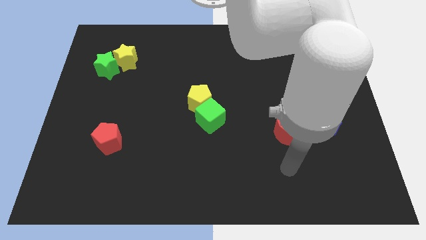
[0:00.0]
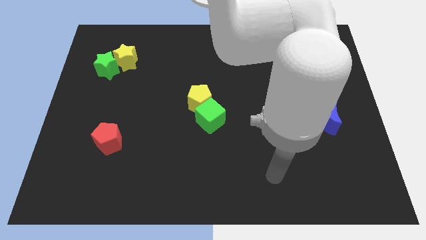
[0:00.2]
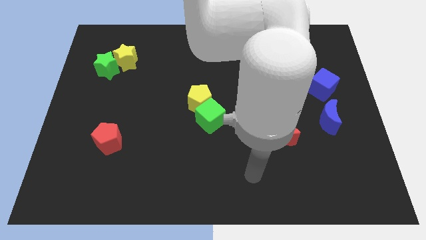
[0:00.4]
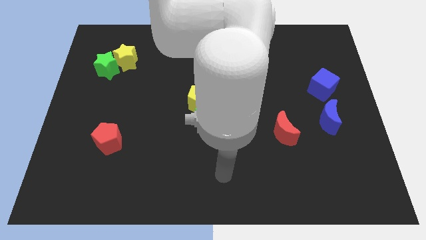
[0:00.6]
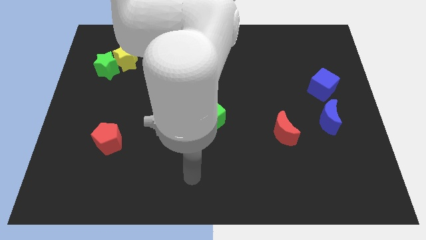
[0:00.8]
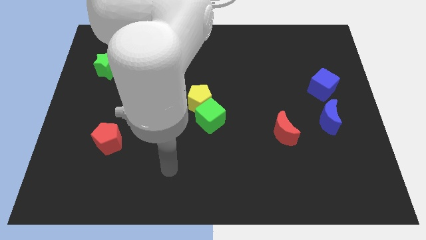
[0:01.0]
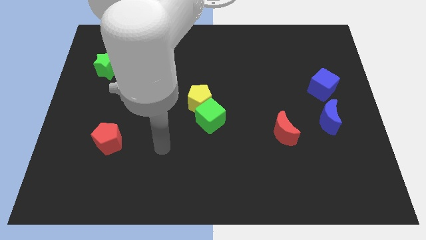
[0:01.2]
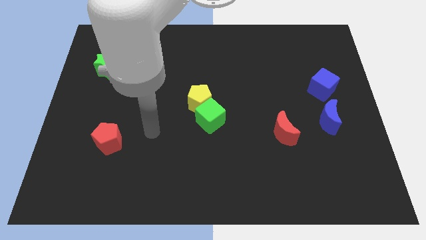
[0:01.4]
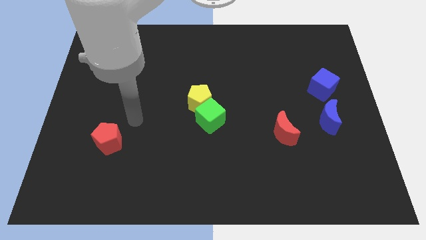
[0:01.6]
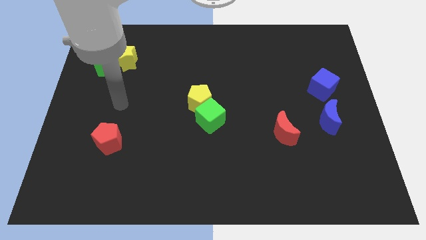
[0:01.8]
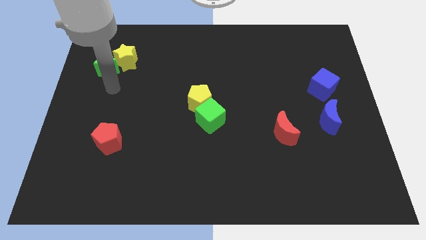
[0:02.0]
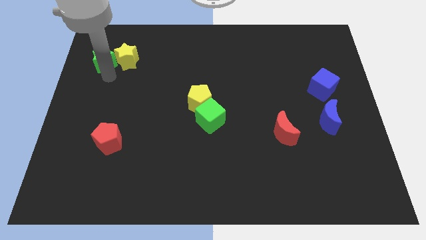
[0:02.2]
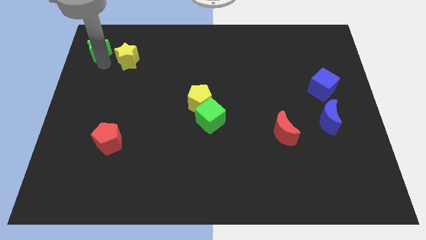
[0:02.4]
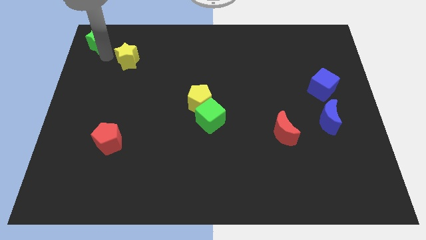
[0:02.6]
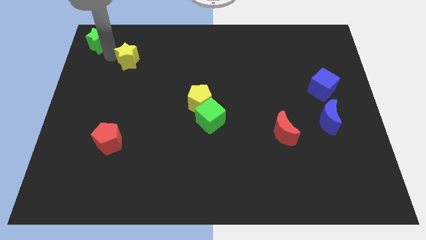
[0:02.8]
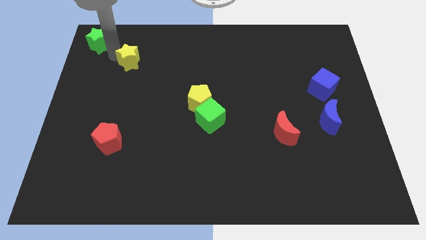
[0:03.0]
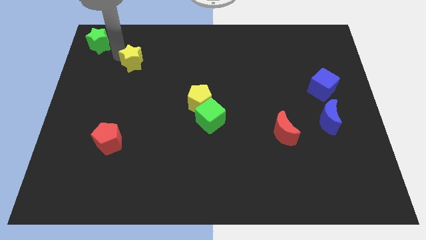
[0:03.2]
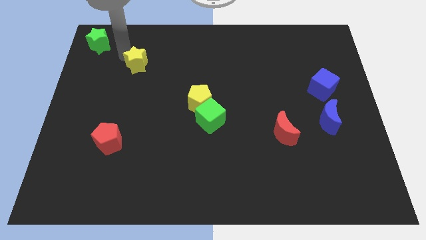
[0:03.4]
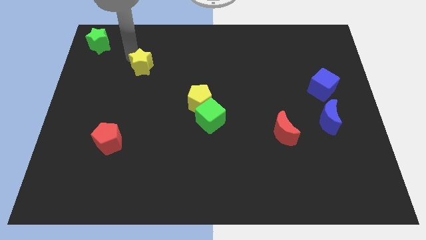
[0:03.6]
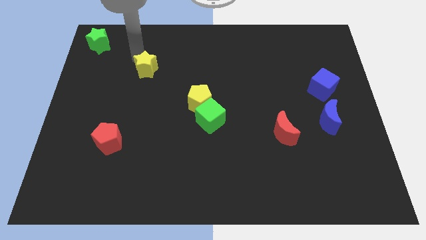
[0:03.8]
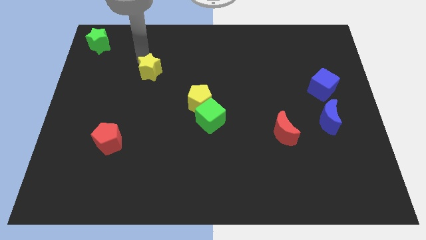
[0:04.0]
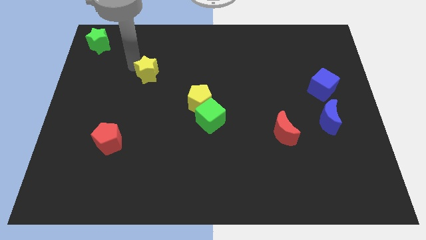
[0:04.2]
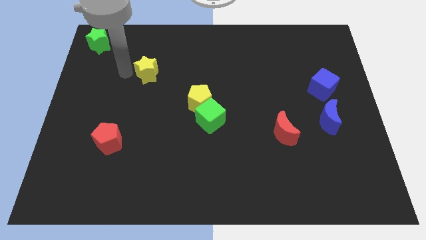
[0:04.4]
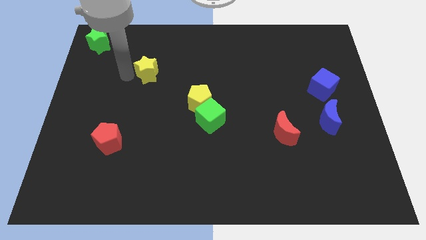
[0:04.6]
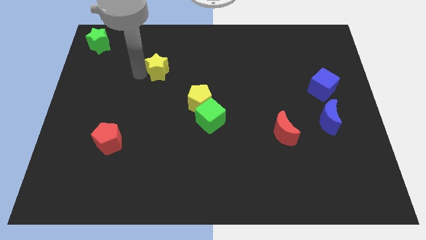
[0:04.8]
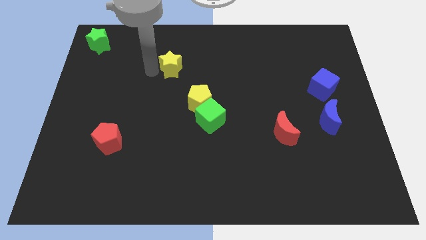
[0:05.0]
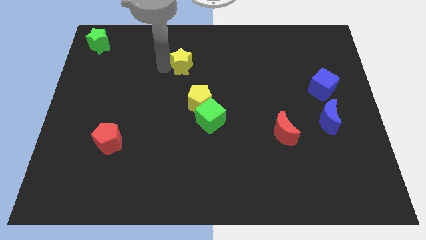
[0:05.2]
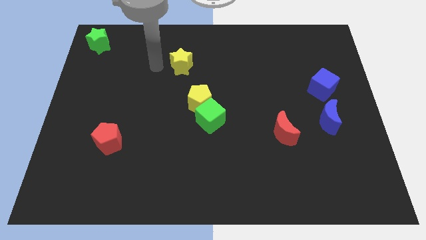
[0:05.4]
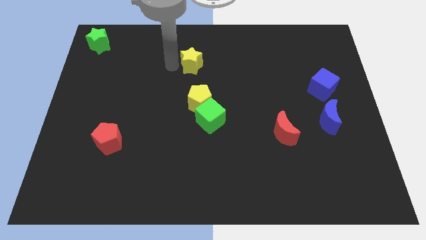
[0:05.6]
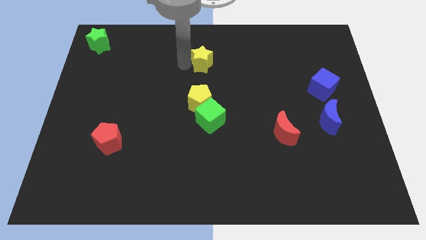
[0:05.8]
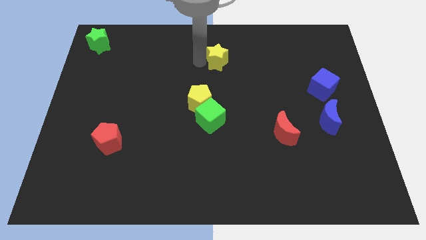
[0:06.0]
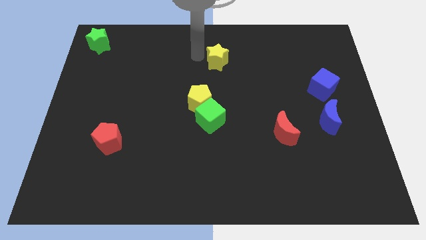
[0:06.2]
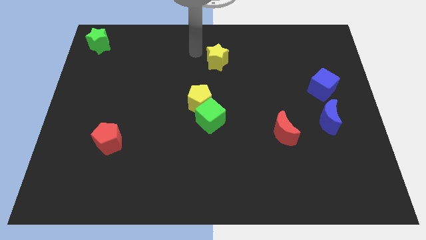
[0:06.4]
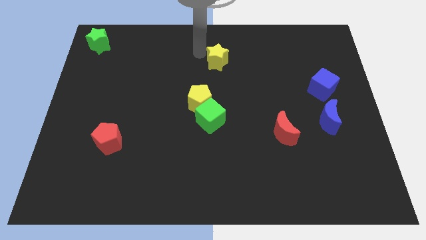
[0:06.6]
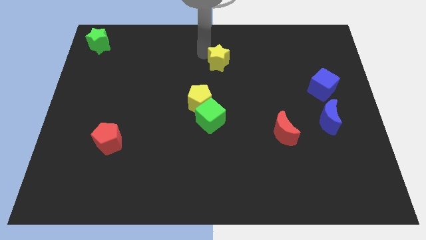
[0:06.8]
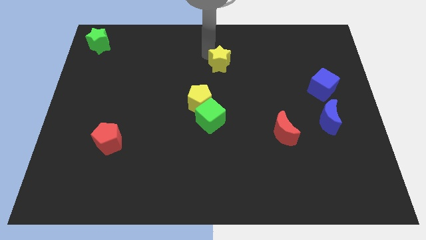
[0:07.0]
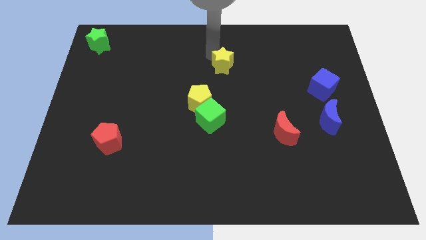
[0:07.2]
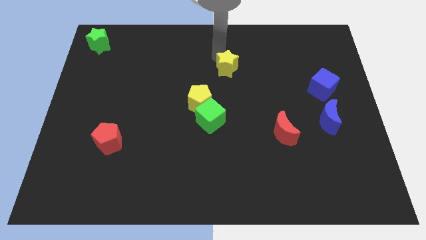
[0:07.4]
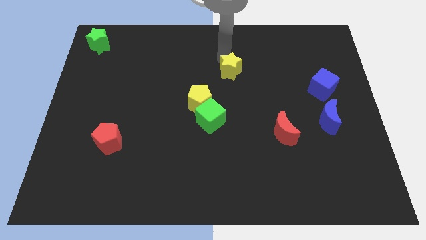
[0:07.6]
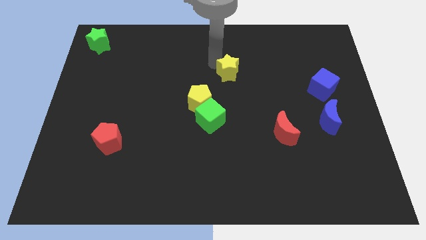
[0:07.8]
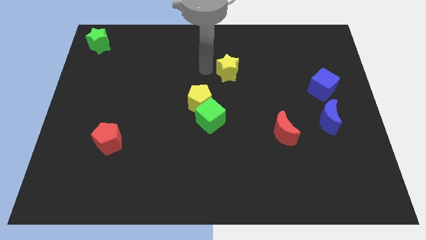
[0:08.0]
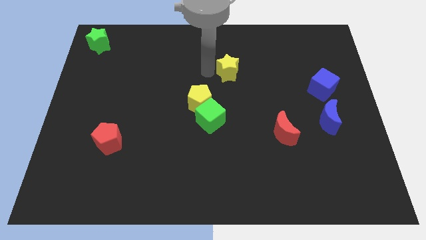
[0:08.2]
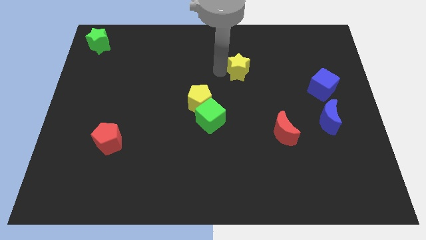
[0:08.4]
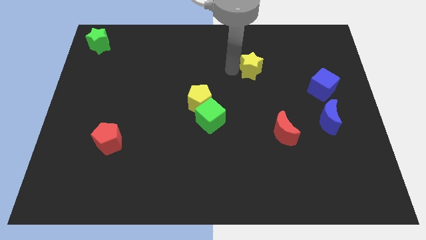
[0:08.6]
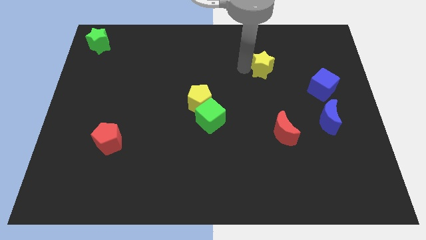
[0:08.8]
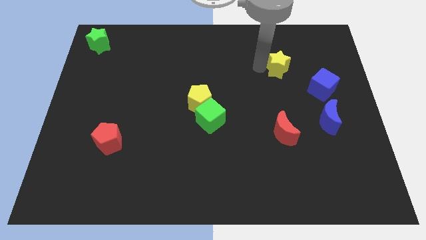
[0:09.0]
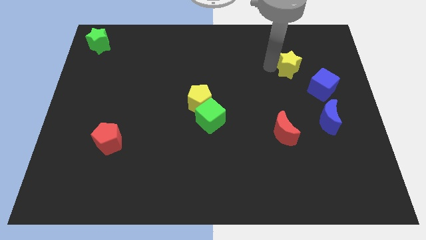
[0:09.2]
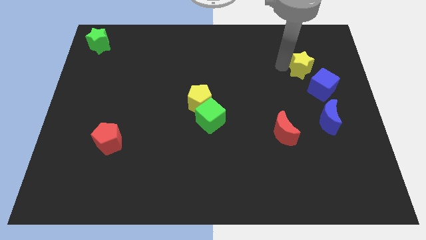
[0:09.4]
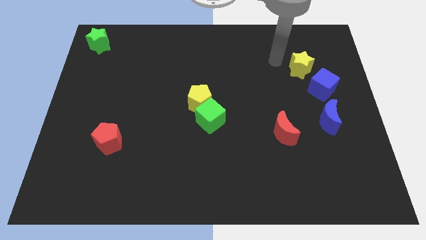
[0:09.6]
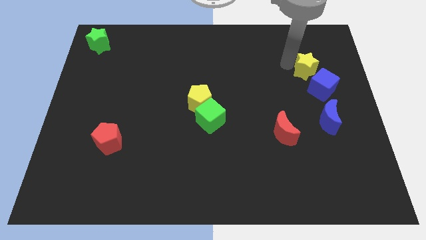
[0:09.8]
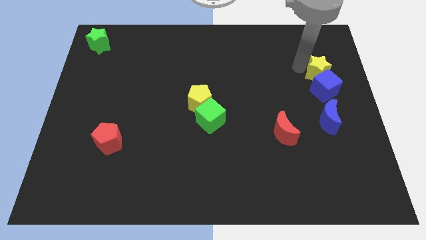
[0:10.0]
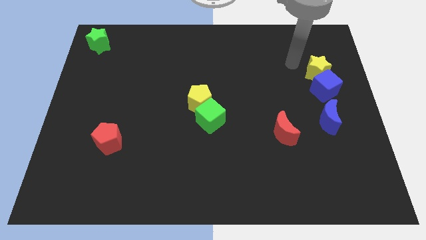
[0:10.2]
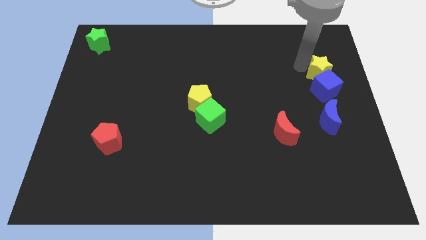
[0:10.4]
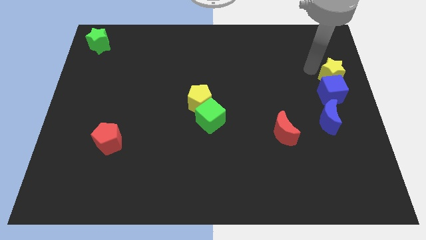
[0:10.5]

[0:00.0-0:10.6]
push the yellow star to the center right

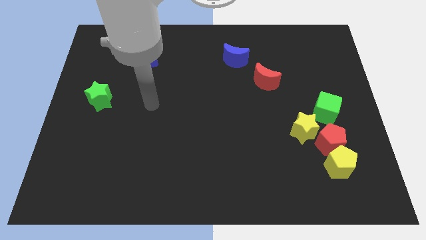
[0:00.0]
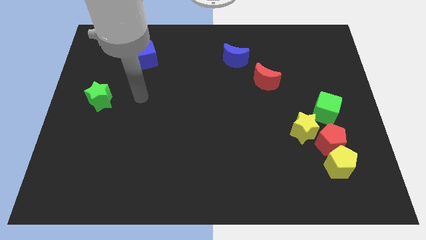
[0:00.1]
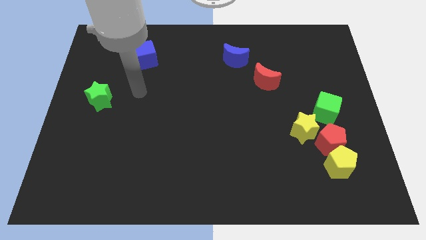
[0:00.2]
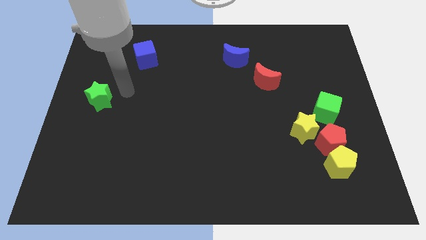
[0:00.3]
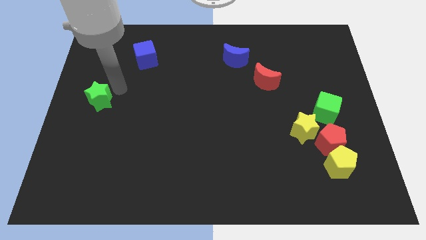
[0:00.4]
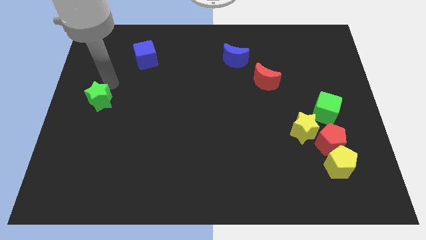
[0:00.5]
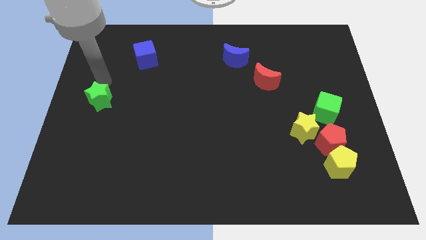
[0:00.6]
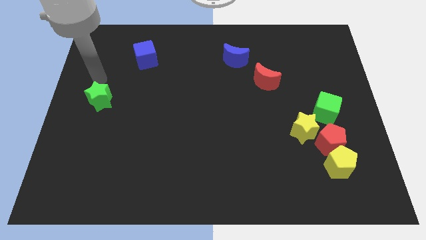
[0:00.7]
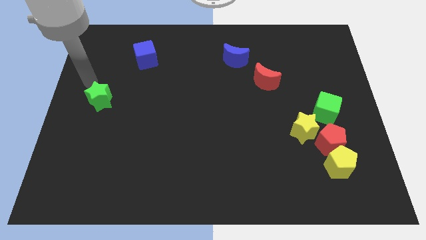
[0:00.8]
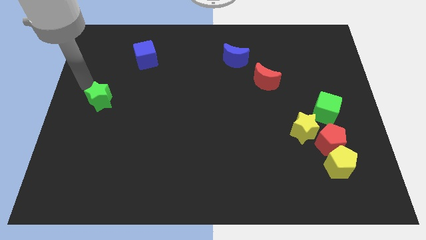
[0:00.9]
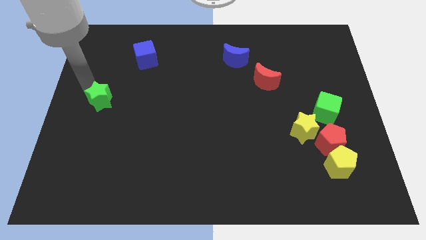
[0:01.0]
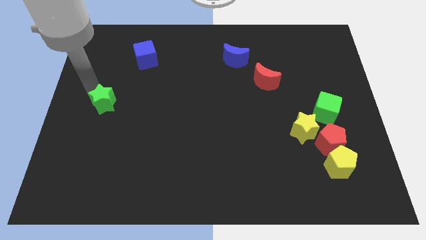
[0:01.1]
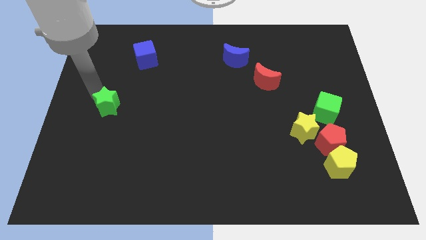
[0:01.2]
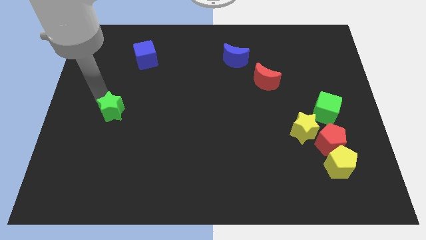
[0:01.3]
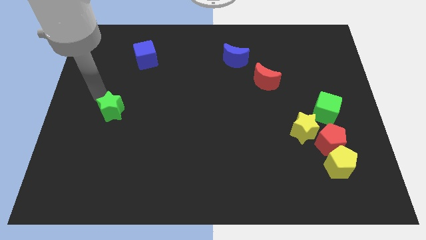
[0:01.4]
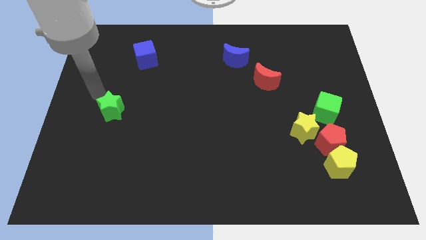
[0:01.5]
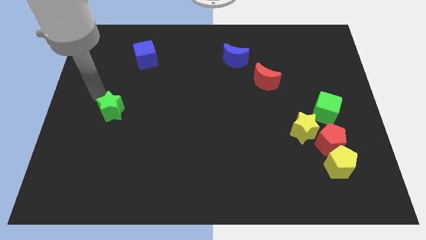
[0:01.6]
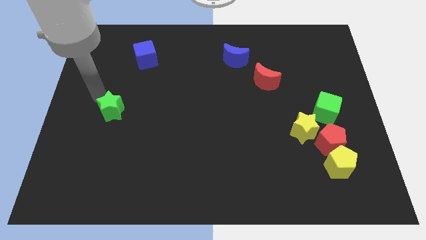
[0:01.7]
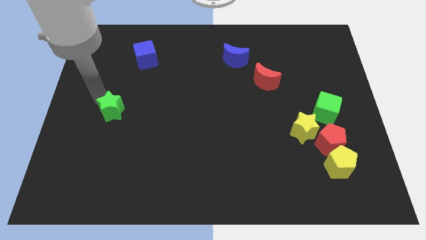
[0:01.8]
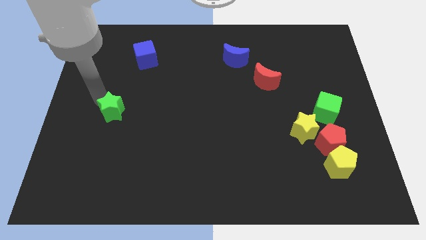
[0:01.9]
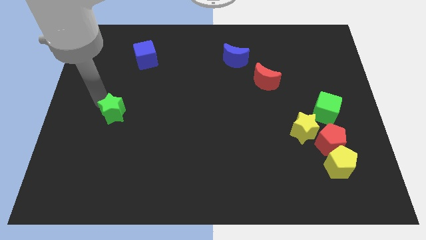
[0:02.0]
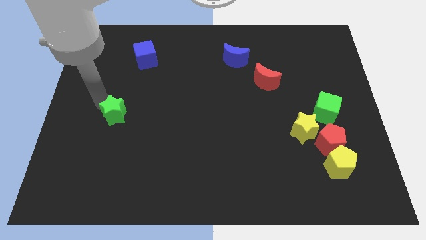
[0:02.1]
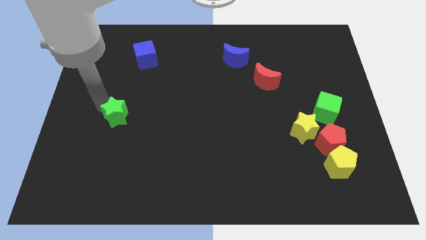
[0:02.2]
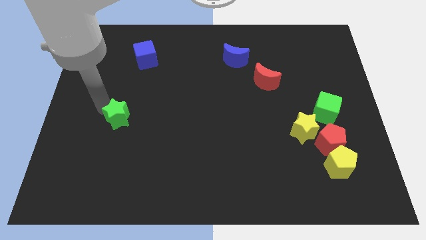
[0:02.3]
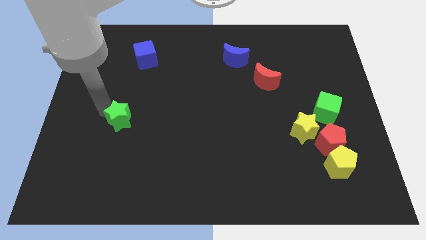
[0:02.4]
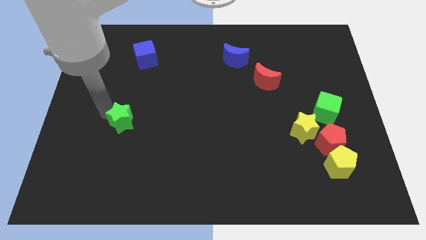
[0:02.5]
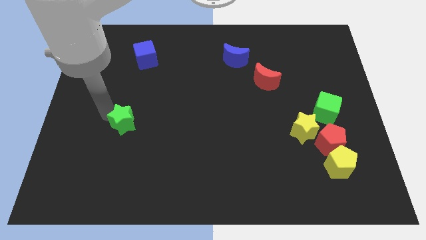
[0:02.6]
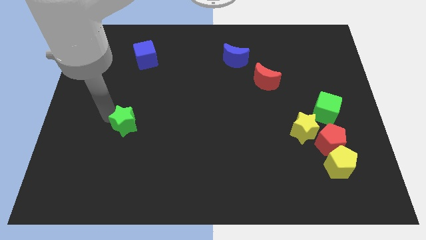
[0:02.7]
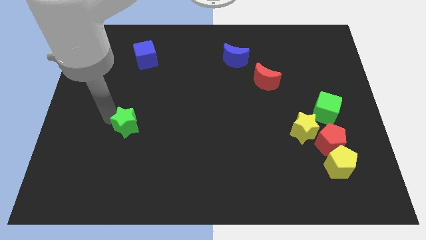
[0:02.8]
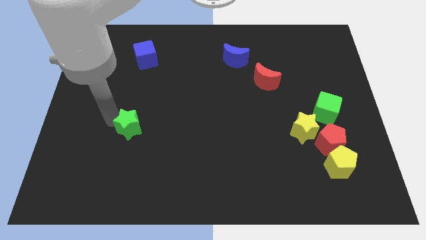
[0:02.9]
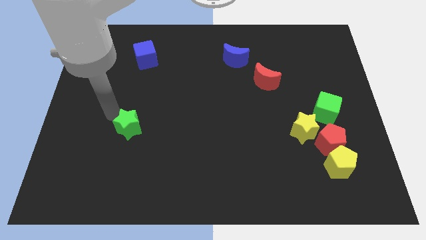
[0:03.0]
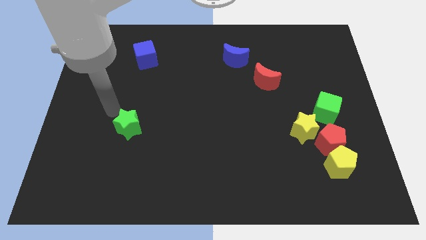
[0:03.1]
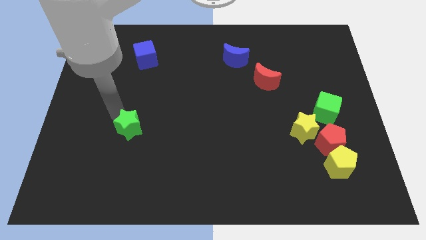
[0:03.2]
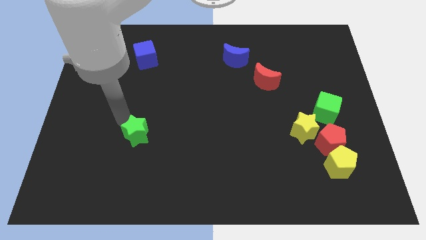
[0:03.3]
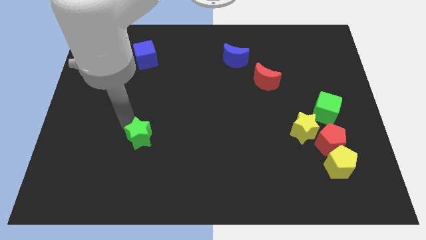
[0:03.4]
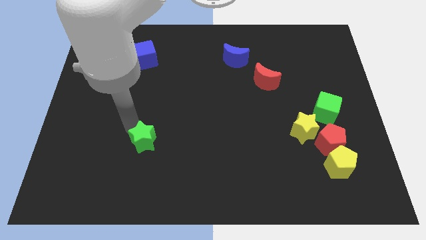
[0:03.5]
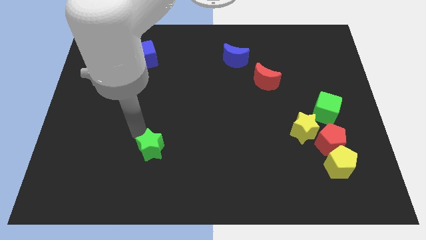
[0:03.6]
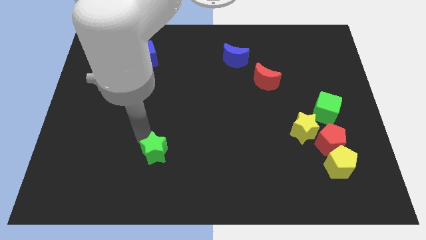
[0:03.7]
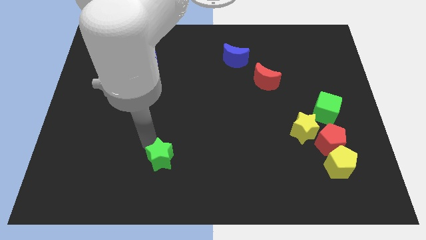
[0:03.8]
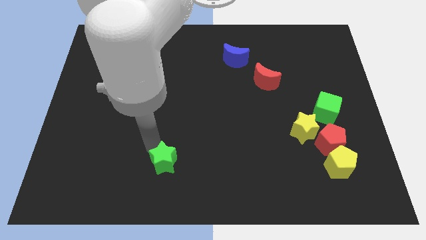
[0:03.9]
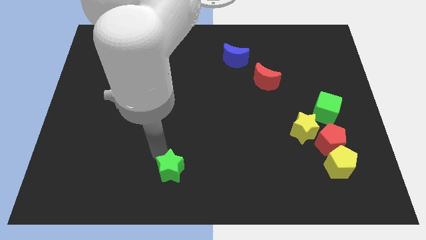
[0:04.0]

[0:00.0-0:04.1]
move the green star to the bottom side
